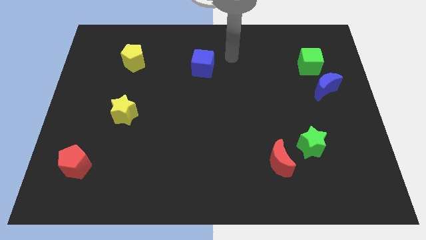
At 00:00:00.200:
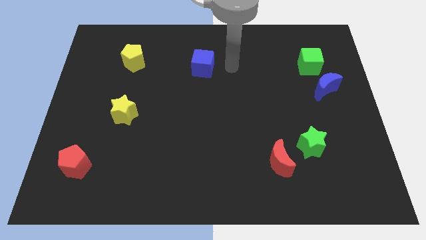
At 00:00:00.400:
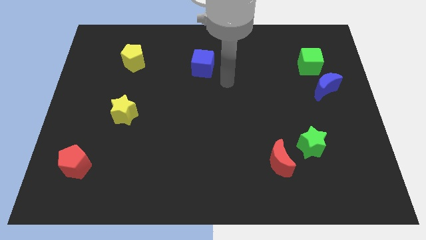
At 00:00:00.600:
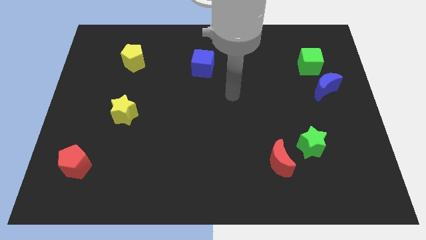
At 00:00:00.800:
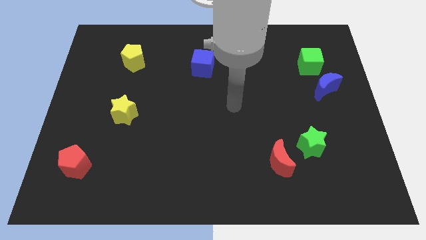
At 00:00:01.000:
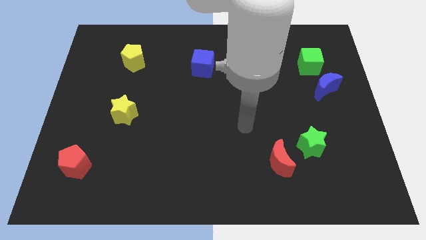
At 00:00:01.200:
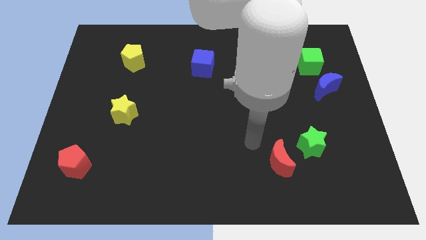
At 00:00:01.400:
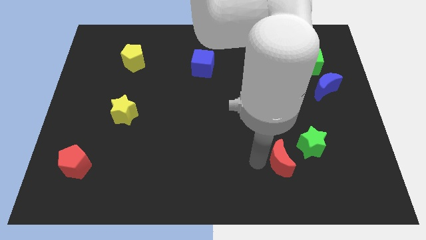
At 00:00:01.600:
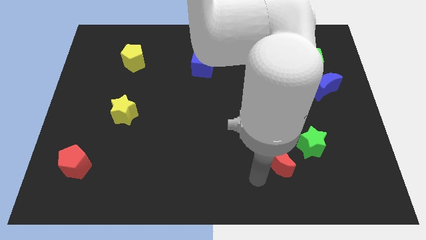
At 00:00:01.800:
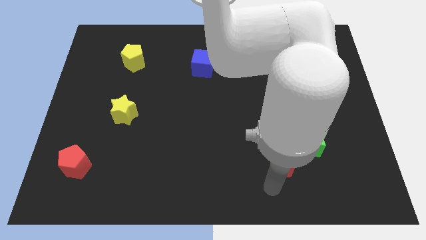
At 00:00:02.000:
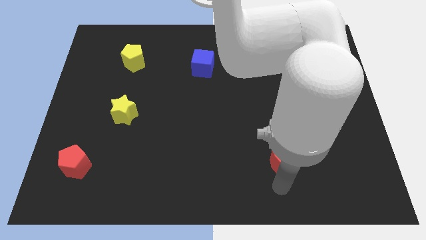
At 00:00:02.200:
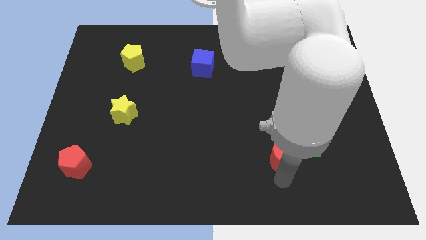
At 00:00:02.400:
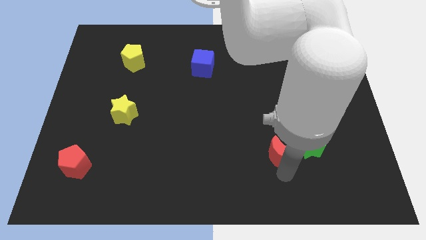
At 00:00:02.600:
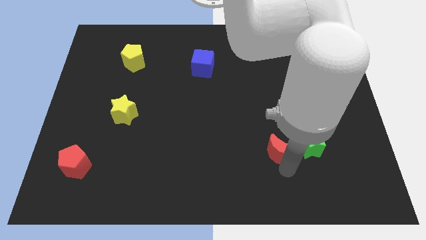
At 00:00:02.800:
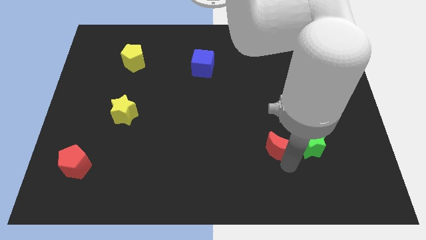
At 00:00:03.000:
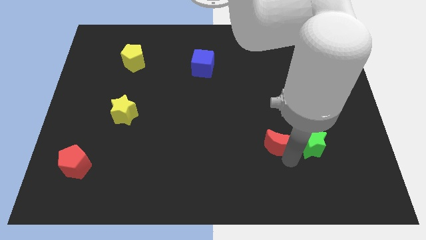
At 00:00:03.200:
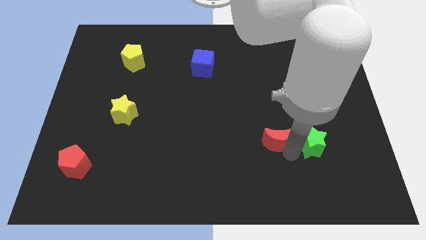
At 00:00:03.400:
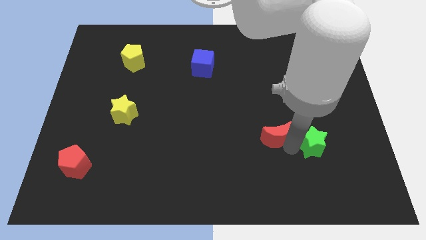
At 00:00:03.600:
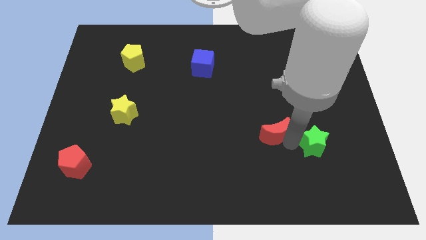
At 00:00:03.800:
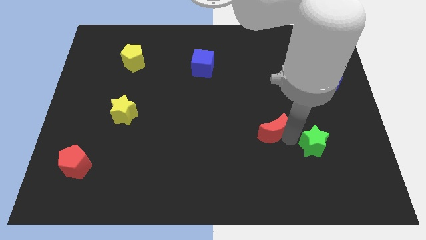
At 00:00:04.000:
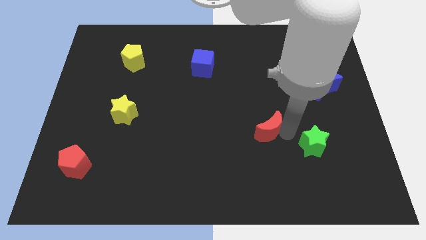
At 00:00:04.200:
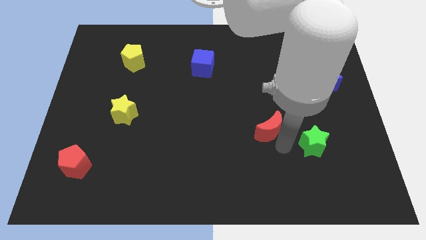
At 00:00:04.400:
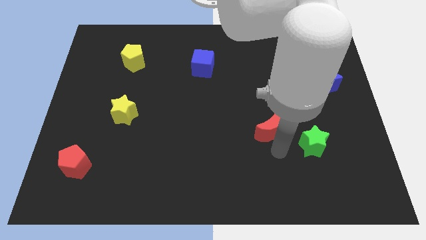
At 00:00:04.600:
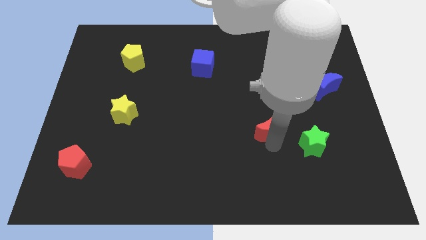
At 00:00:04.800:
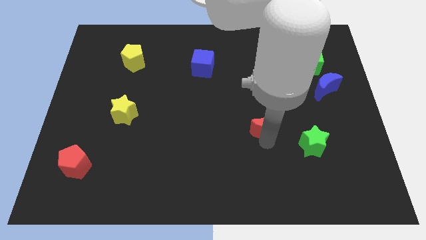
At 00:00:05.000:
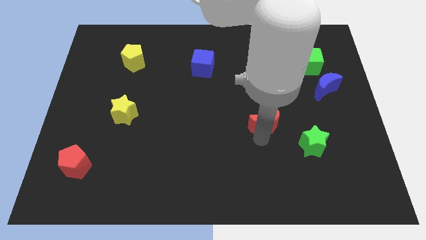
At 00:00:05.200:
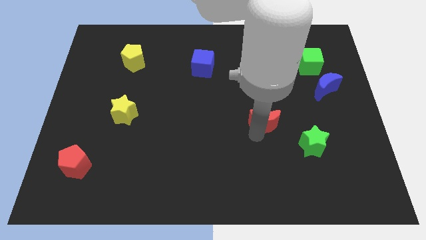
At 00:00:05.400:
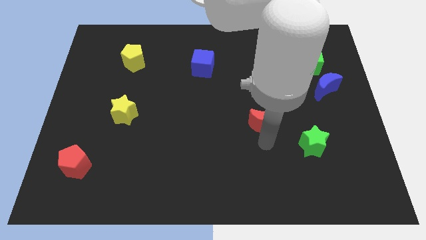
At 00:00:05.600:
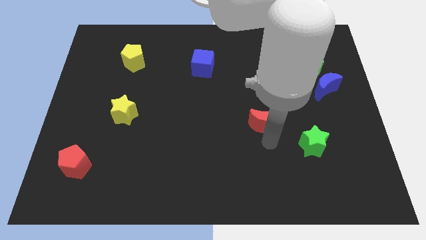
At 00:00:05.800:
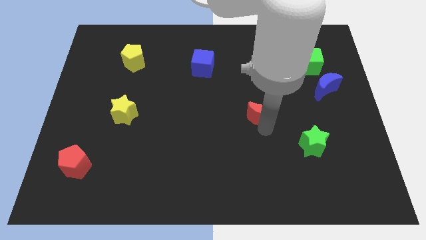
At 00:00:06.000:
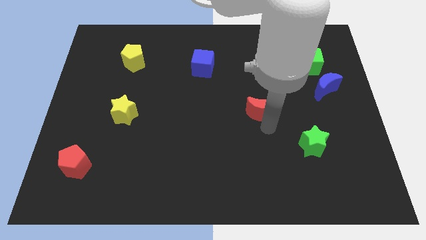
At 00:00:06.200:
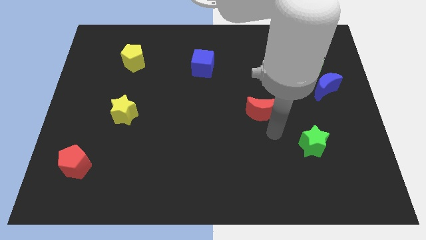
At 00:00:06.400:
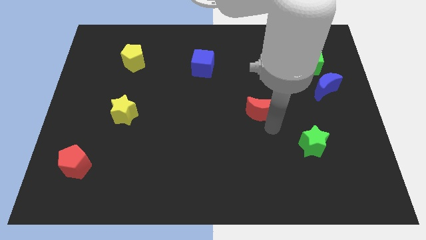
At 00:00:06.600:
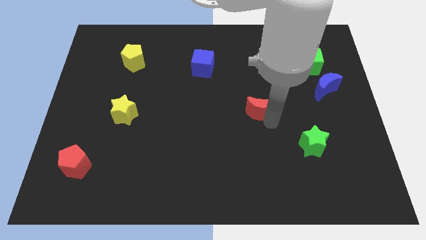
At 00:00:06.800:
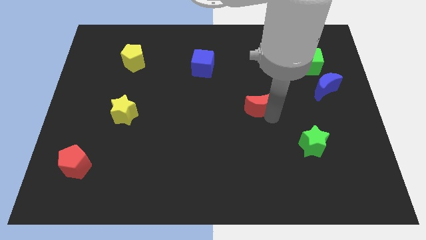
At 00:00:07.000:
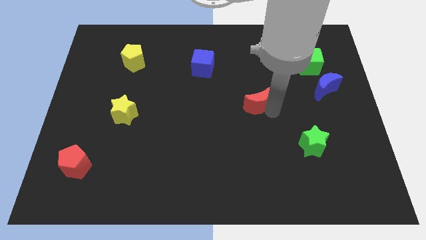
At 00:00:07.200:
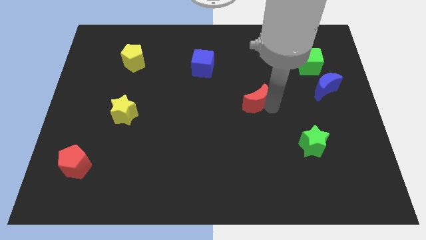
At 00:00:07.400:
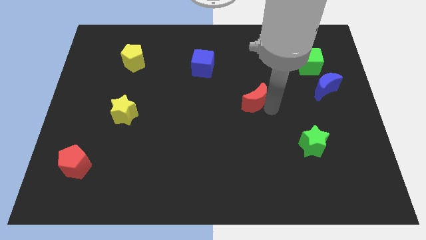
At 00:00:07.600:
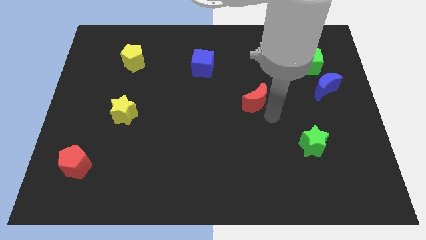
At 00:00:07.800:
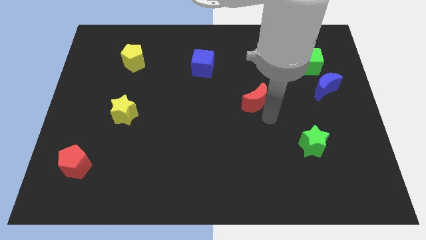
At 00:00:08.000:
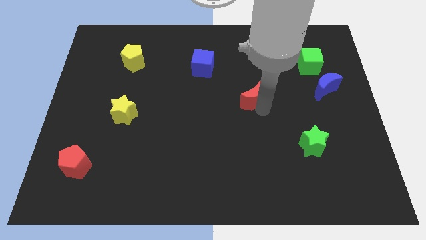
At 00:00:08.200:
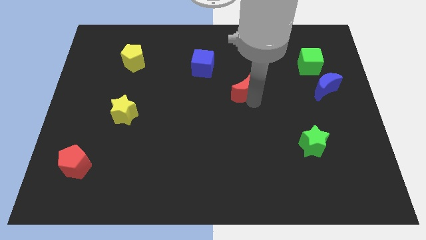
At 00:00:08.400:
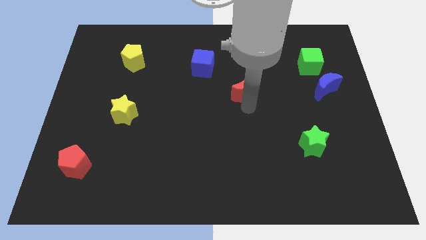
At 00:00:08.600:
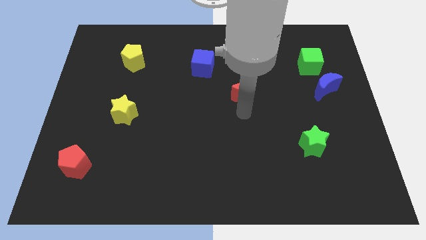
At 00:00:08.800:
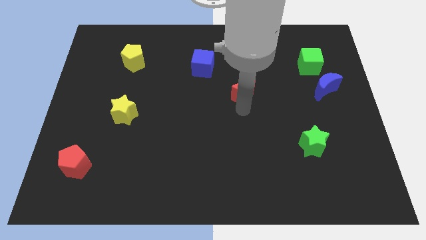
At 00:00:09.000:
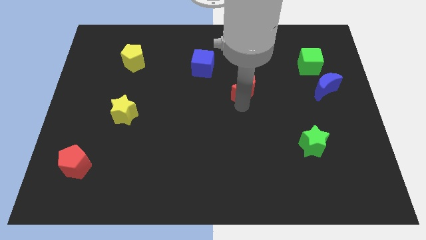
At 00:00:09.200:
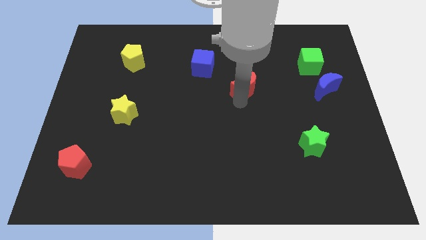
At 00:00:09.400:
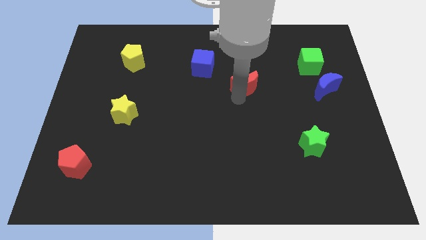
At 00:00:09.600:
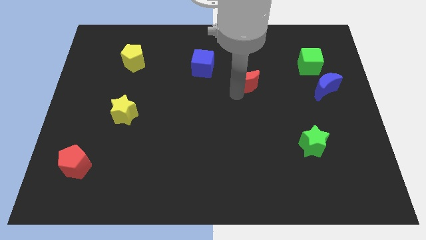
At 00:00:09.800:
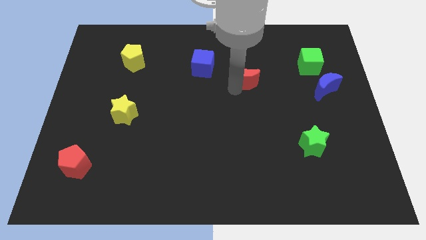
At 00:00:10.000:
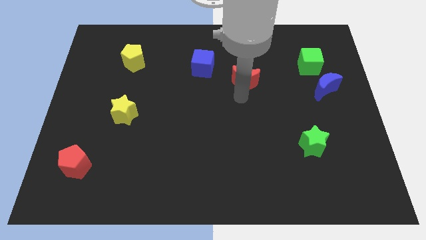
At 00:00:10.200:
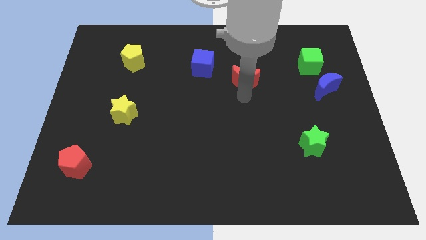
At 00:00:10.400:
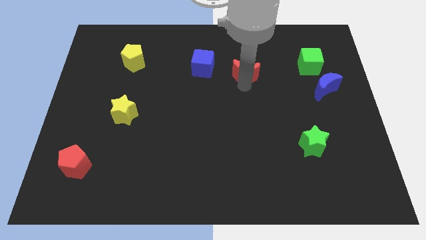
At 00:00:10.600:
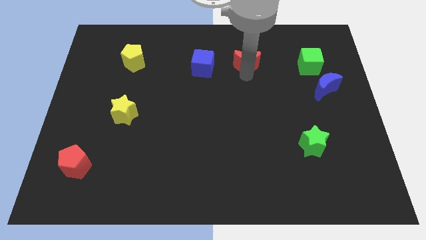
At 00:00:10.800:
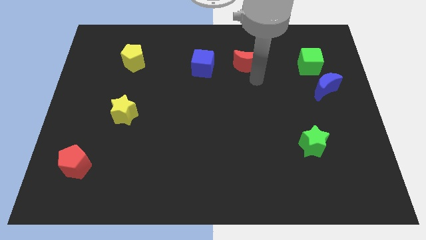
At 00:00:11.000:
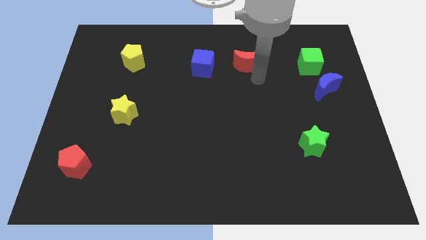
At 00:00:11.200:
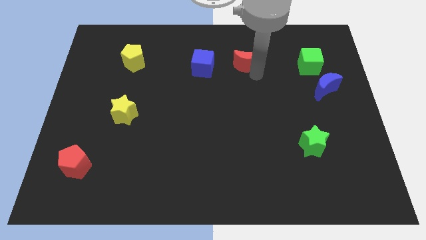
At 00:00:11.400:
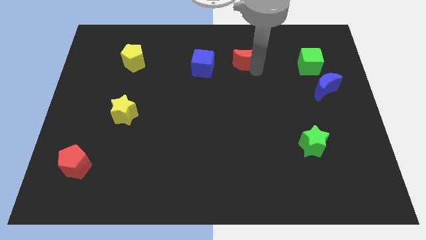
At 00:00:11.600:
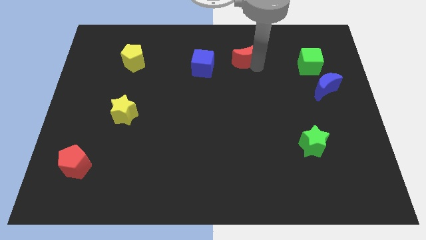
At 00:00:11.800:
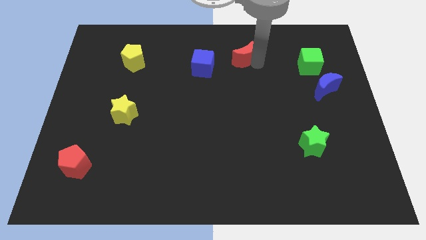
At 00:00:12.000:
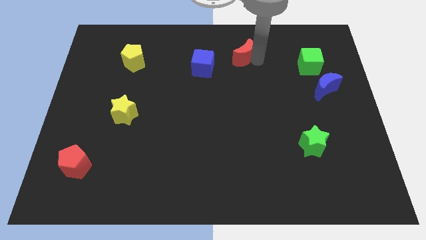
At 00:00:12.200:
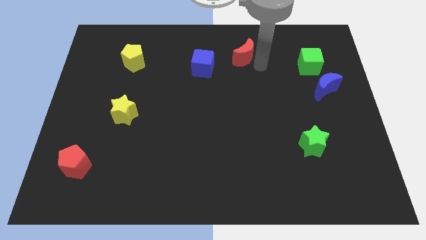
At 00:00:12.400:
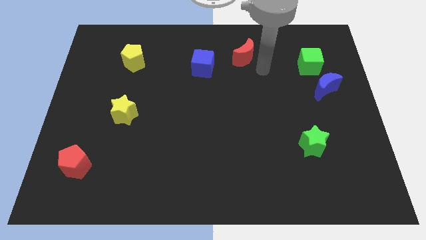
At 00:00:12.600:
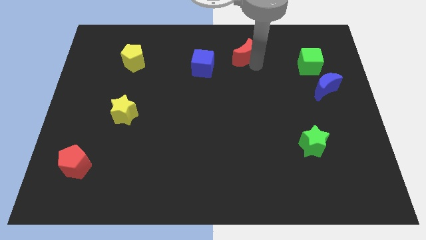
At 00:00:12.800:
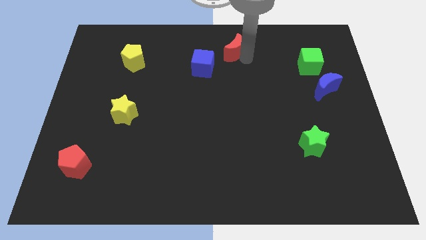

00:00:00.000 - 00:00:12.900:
put the red moon to the top
